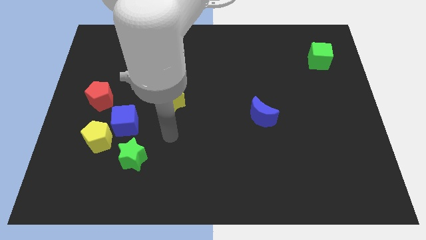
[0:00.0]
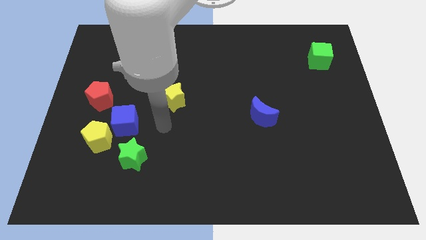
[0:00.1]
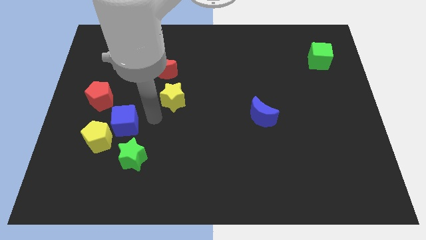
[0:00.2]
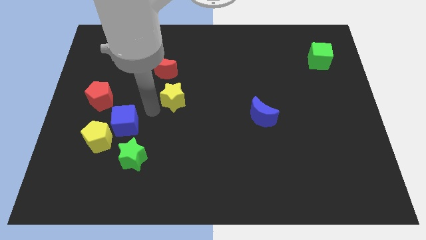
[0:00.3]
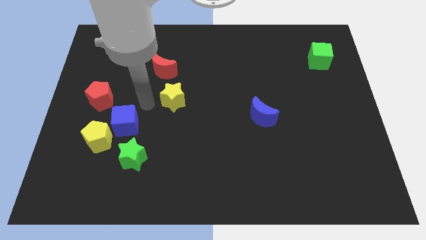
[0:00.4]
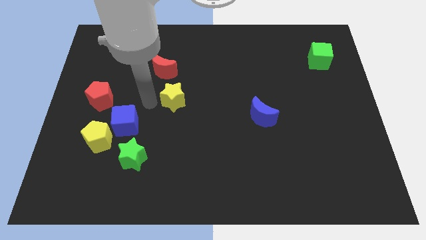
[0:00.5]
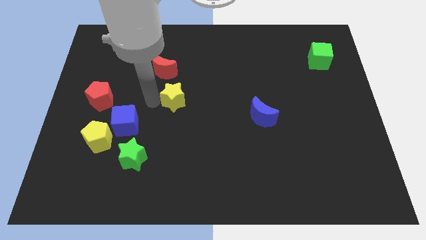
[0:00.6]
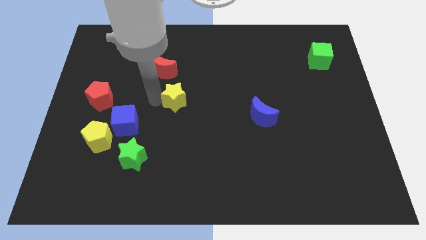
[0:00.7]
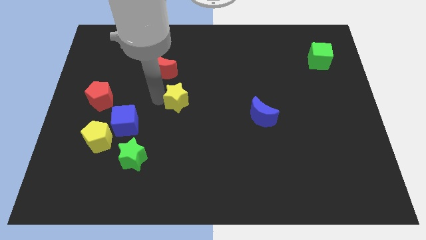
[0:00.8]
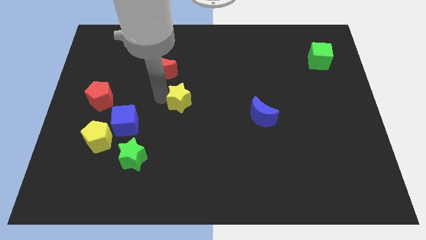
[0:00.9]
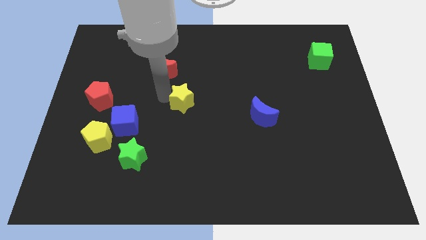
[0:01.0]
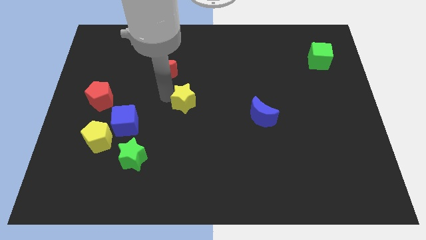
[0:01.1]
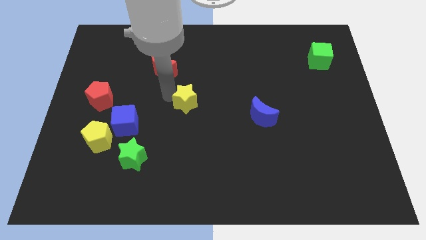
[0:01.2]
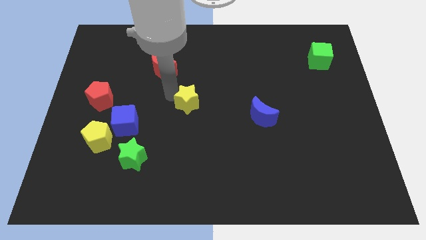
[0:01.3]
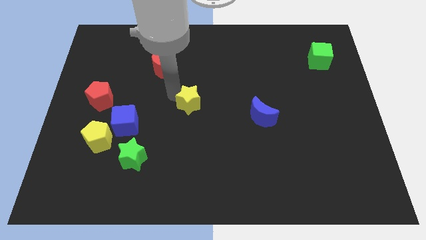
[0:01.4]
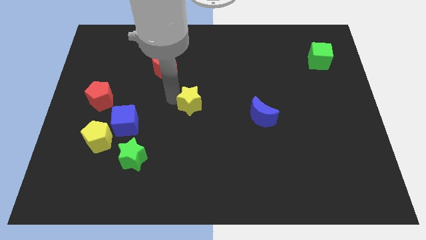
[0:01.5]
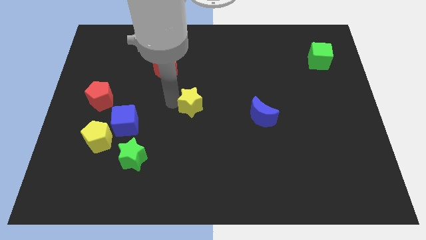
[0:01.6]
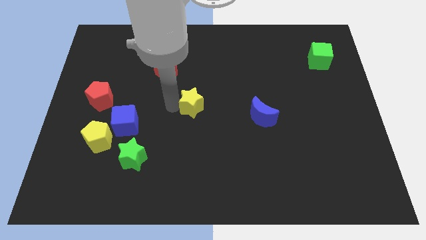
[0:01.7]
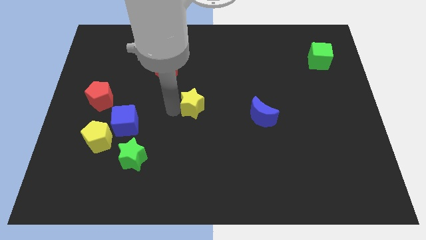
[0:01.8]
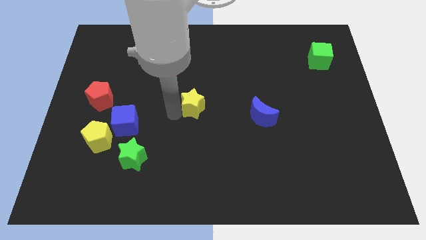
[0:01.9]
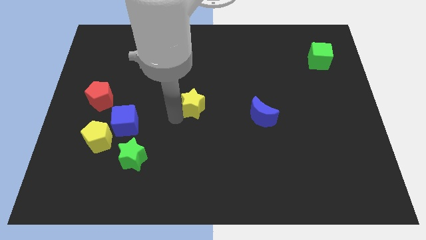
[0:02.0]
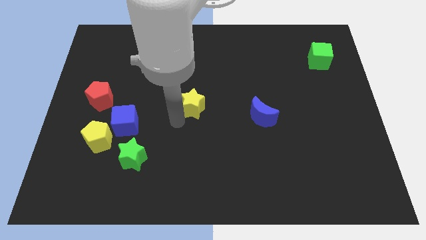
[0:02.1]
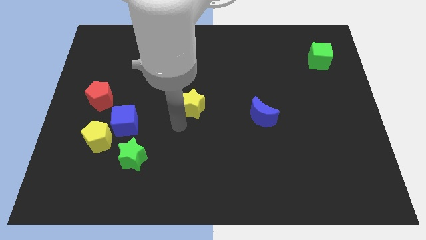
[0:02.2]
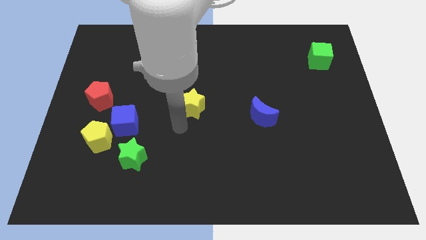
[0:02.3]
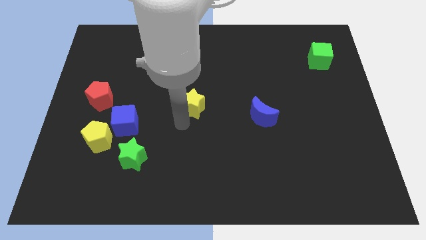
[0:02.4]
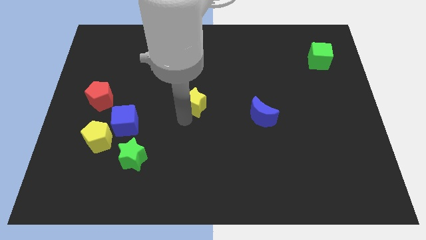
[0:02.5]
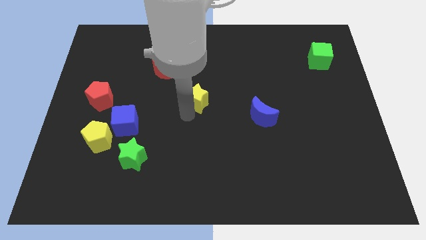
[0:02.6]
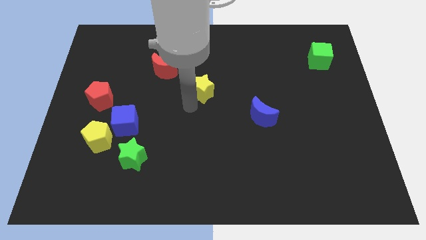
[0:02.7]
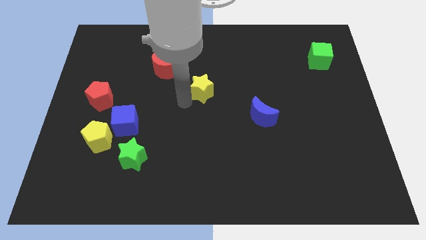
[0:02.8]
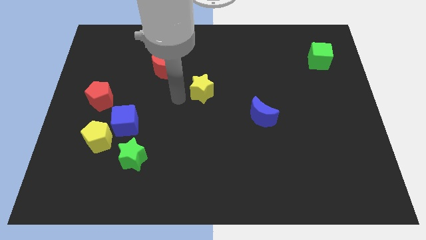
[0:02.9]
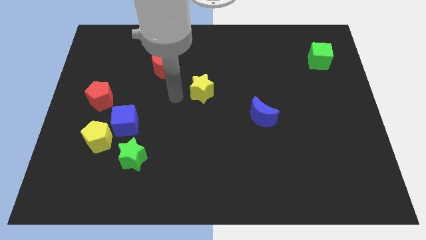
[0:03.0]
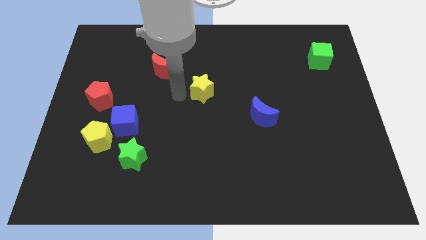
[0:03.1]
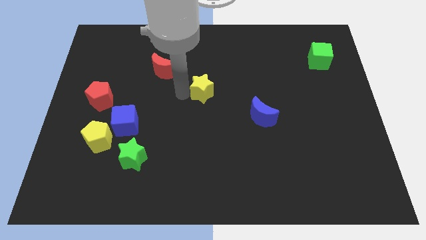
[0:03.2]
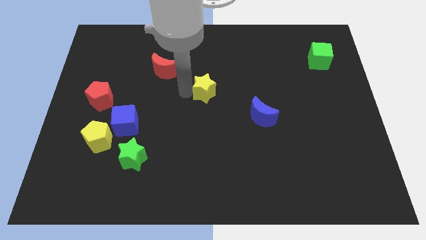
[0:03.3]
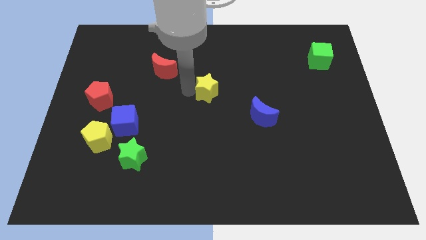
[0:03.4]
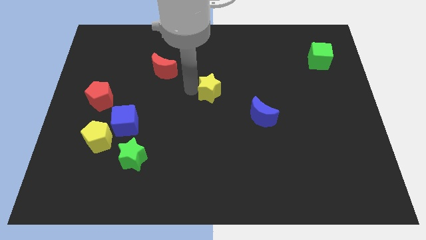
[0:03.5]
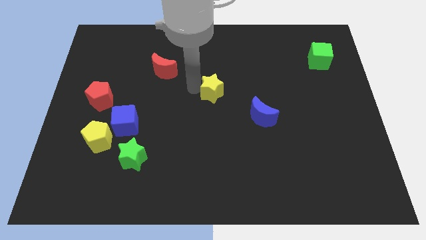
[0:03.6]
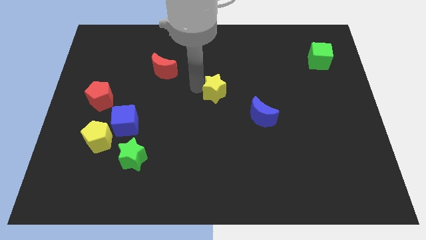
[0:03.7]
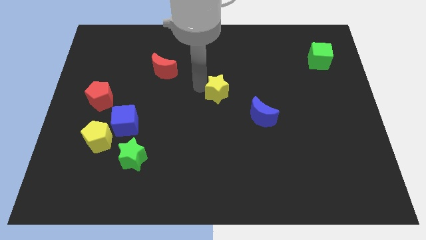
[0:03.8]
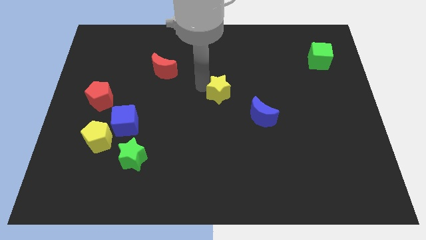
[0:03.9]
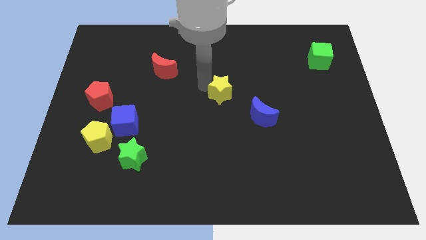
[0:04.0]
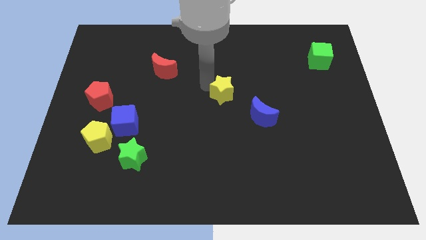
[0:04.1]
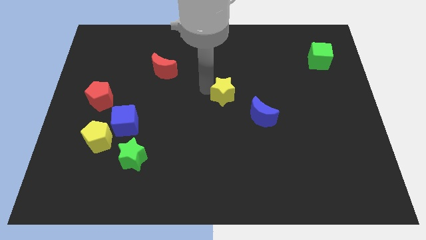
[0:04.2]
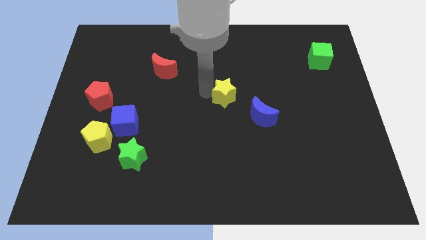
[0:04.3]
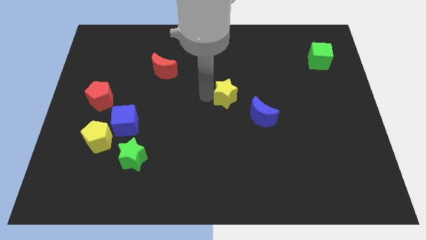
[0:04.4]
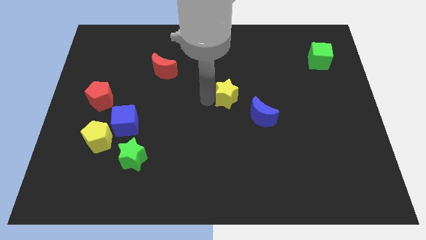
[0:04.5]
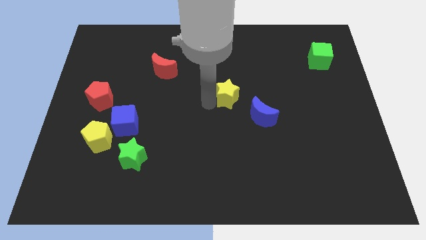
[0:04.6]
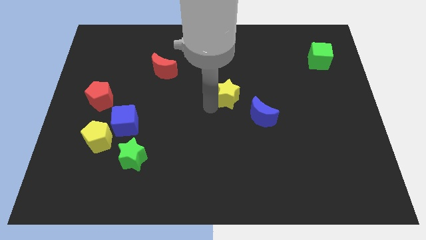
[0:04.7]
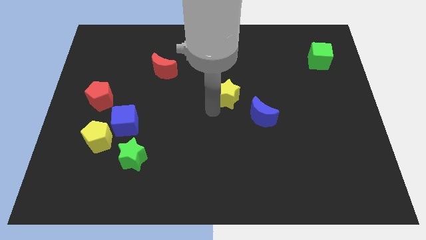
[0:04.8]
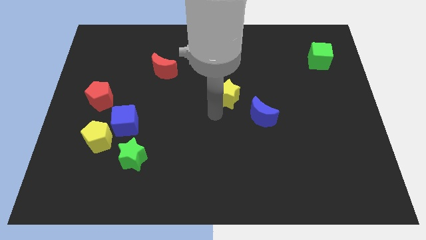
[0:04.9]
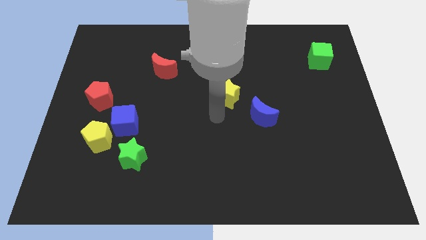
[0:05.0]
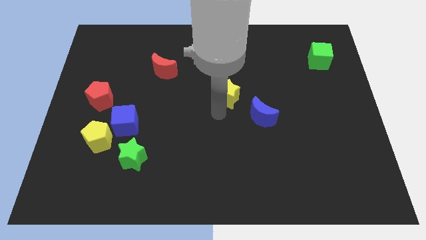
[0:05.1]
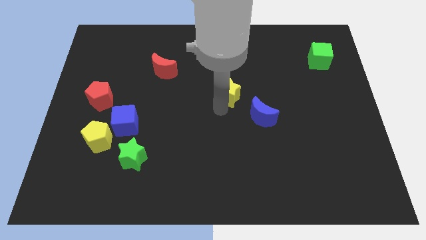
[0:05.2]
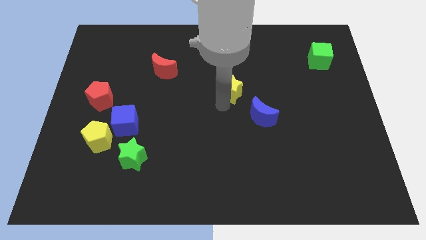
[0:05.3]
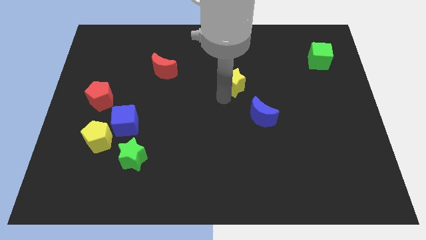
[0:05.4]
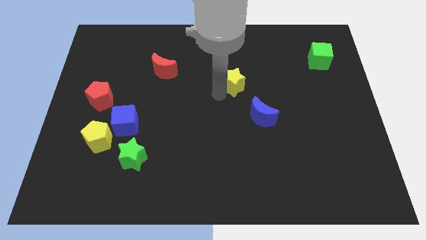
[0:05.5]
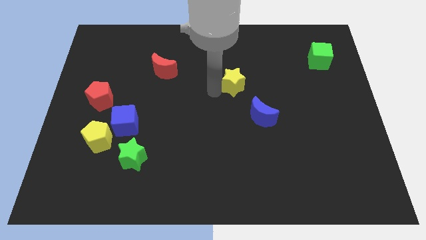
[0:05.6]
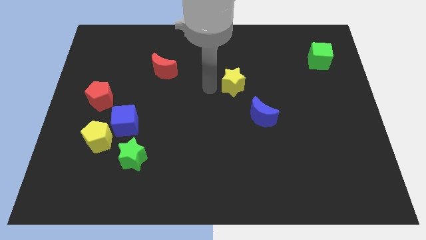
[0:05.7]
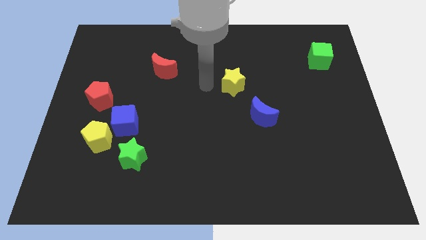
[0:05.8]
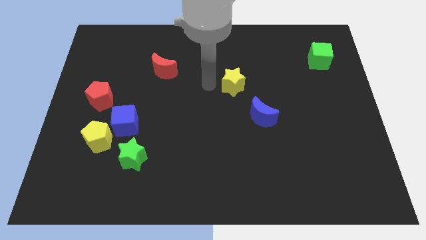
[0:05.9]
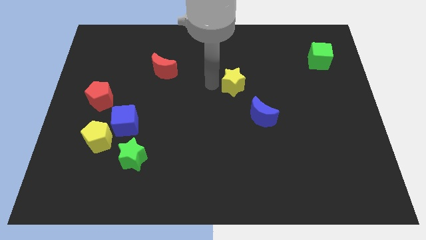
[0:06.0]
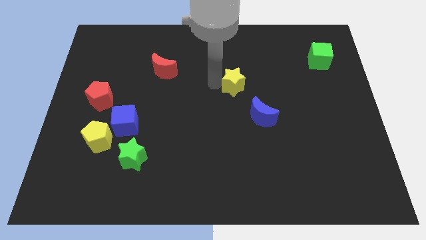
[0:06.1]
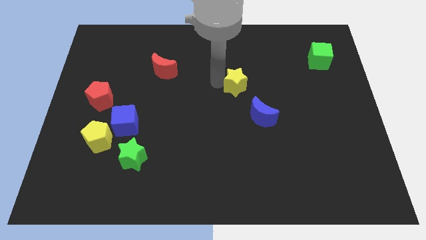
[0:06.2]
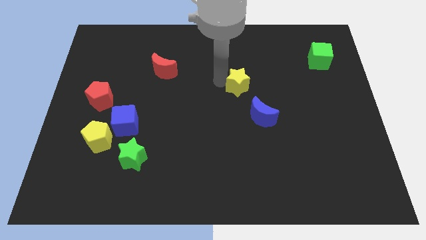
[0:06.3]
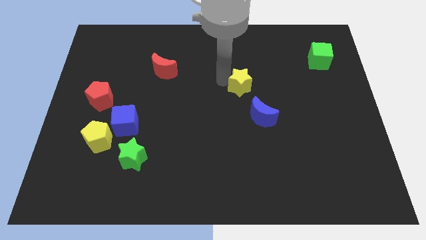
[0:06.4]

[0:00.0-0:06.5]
slide the yellow star to the top of the blue moon

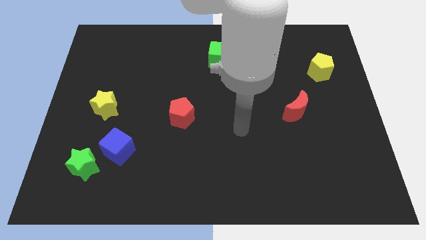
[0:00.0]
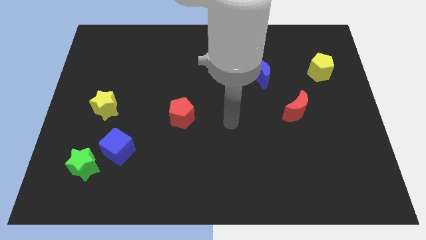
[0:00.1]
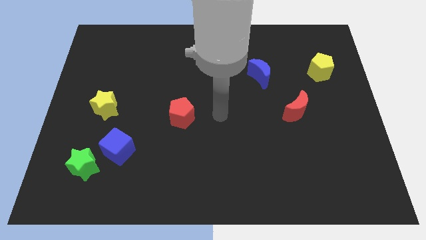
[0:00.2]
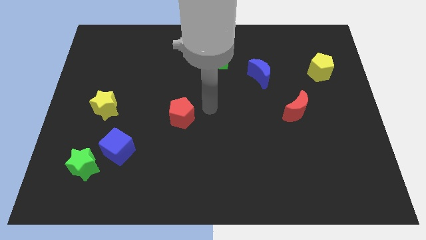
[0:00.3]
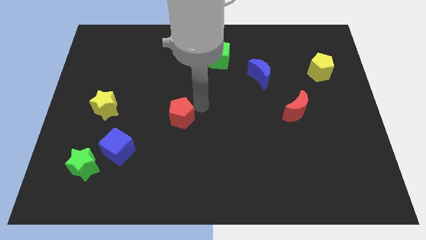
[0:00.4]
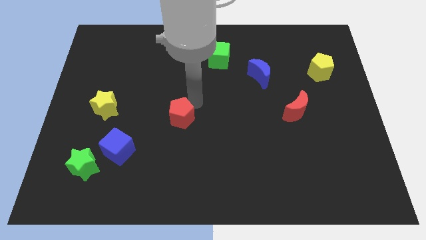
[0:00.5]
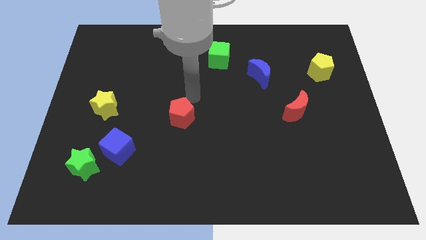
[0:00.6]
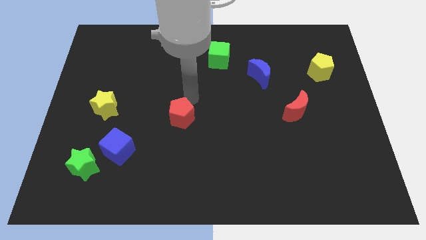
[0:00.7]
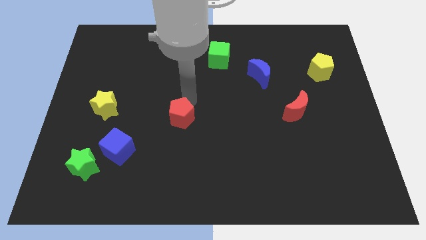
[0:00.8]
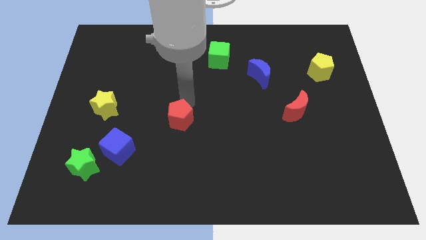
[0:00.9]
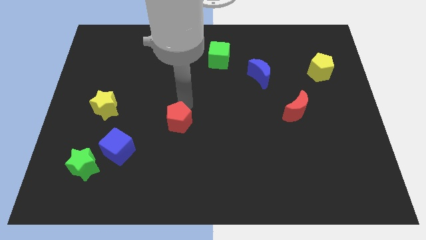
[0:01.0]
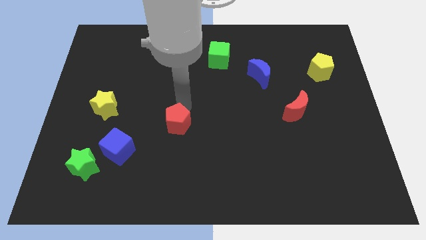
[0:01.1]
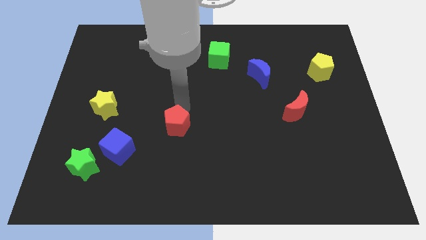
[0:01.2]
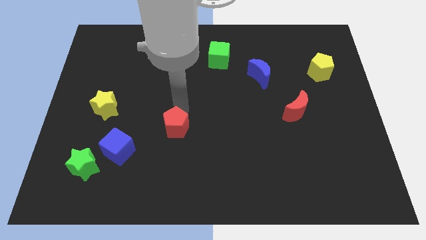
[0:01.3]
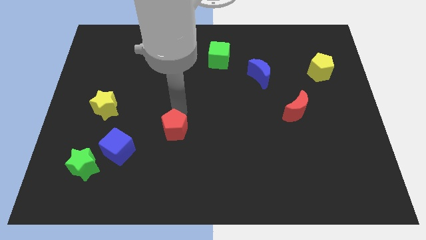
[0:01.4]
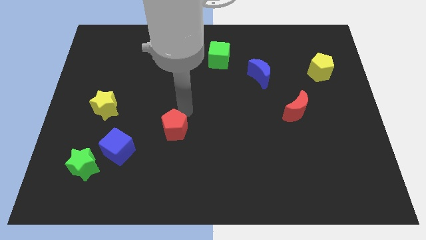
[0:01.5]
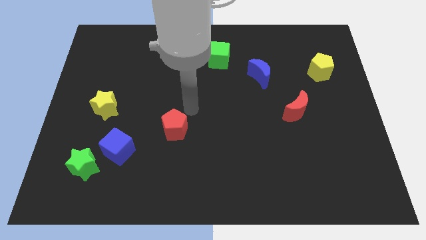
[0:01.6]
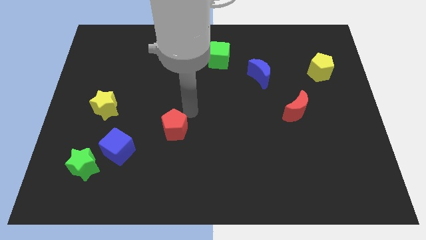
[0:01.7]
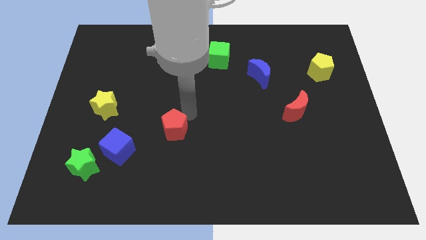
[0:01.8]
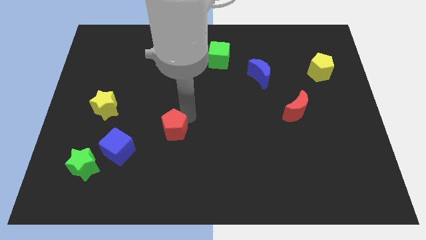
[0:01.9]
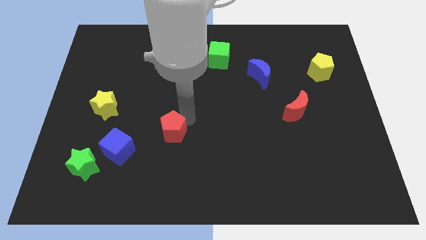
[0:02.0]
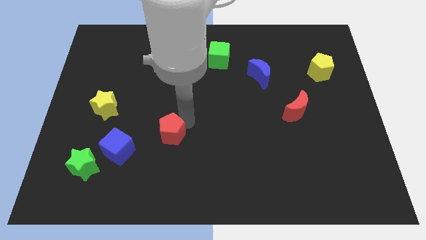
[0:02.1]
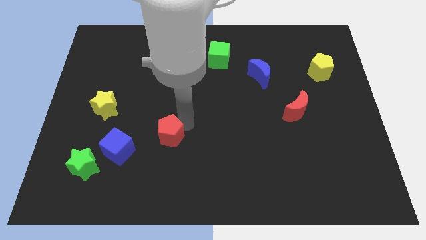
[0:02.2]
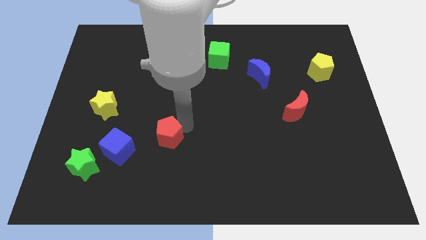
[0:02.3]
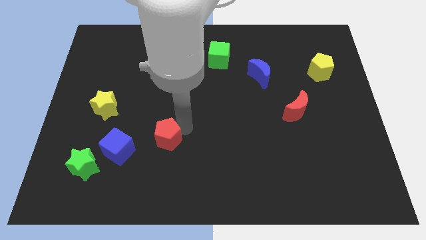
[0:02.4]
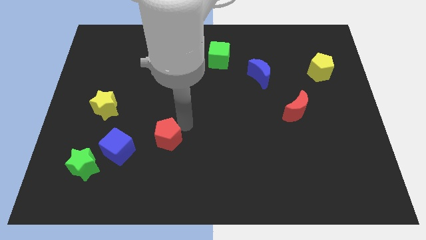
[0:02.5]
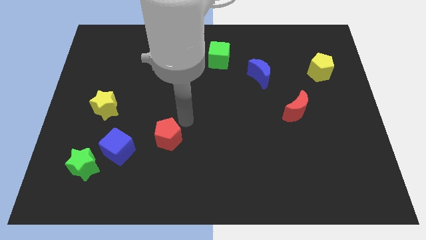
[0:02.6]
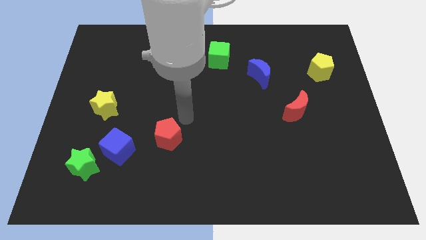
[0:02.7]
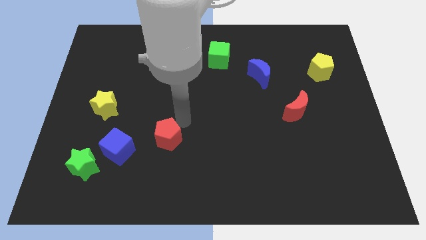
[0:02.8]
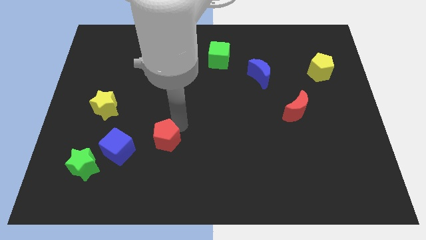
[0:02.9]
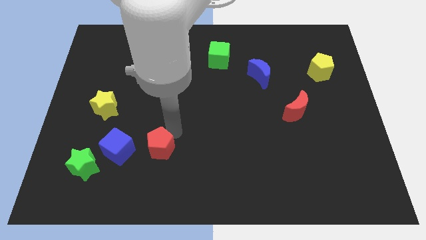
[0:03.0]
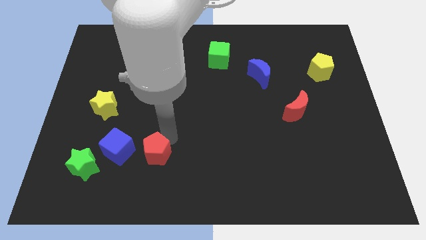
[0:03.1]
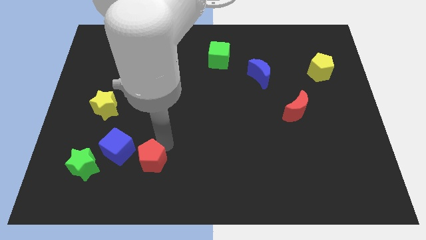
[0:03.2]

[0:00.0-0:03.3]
push the red pentagon to the bottom right of the blue cube
